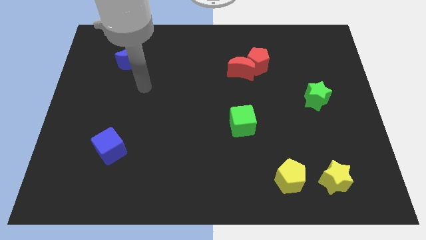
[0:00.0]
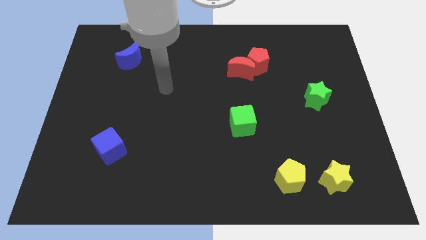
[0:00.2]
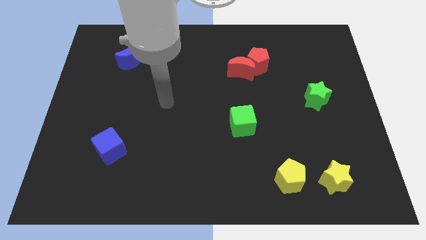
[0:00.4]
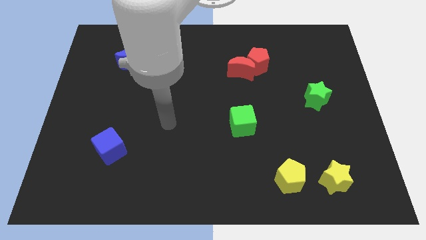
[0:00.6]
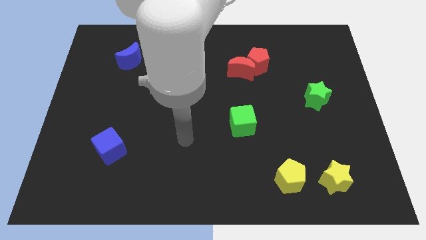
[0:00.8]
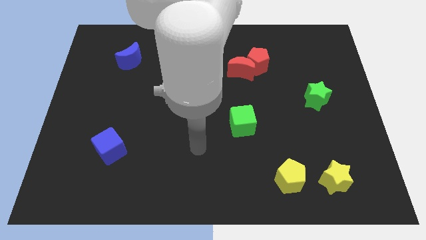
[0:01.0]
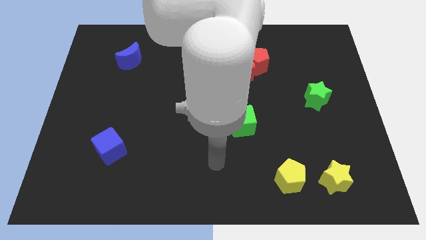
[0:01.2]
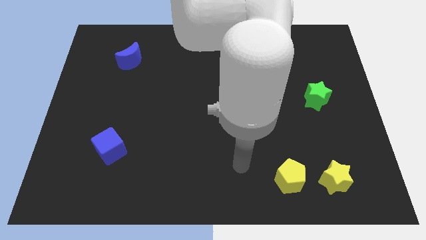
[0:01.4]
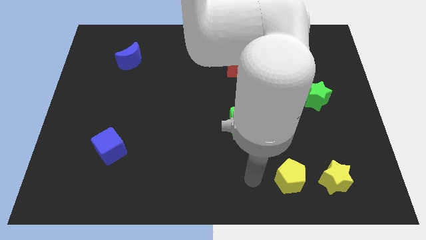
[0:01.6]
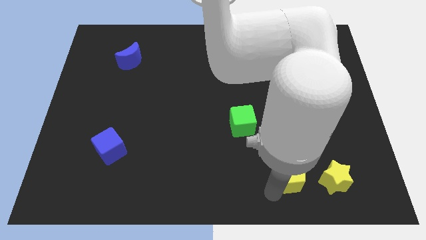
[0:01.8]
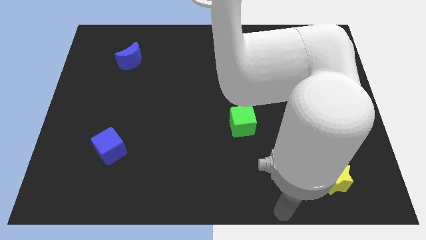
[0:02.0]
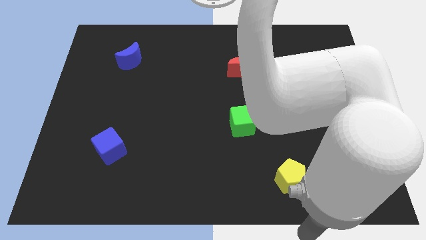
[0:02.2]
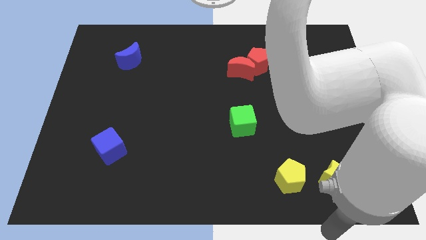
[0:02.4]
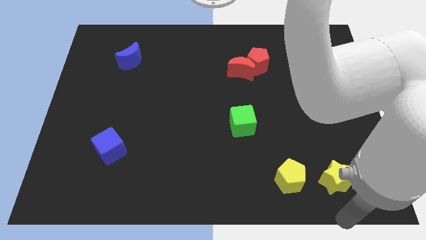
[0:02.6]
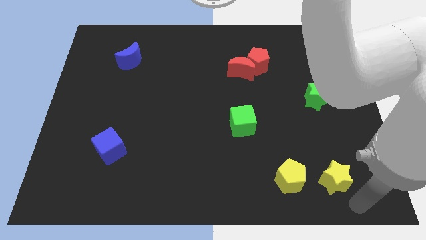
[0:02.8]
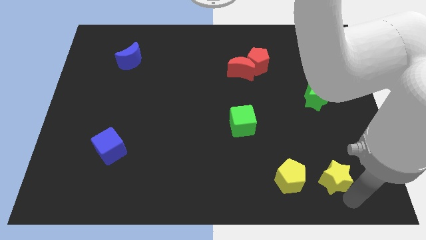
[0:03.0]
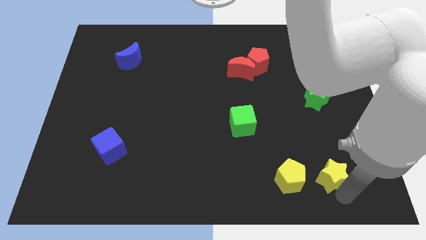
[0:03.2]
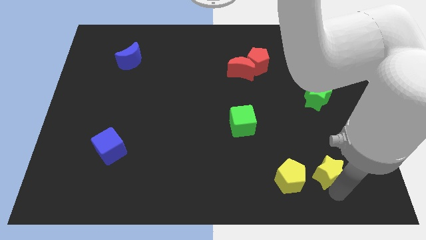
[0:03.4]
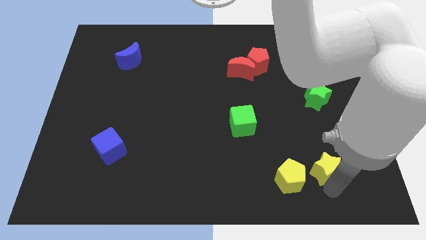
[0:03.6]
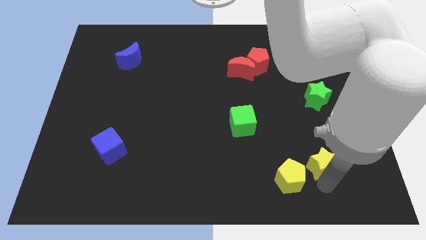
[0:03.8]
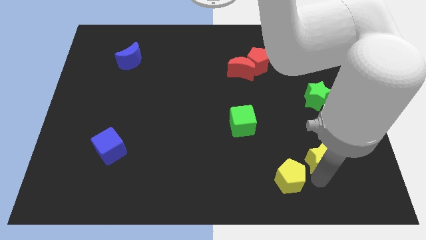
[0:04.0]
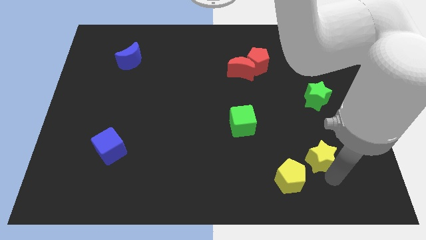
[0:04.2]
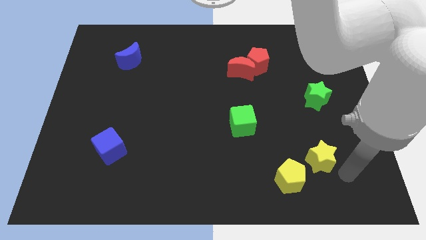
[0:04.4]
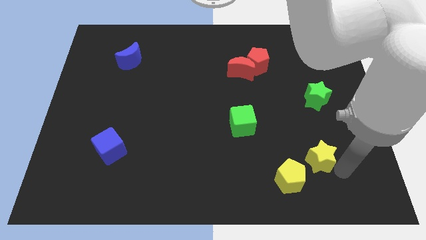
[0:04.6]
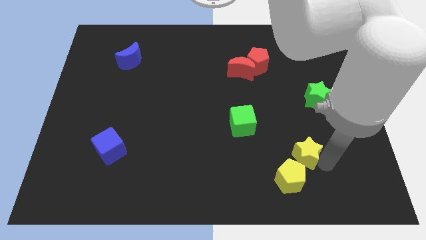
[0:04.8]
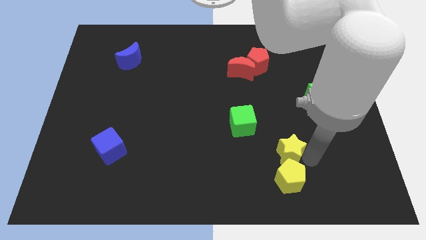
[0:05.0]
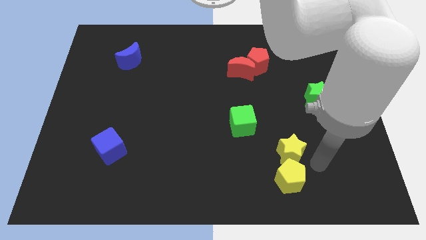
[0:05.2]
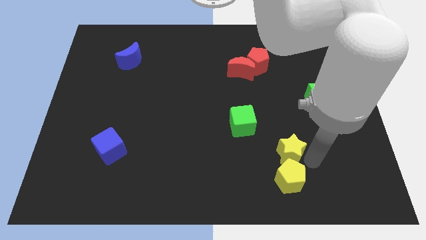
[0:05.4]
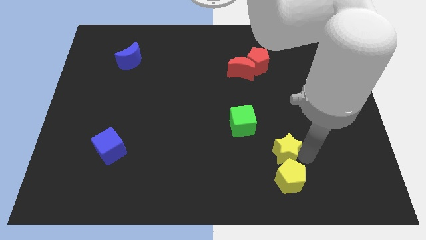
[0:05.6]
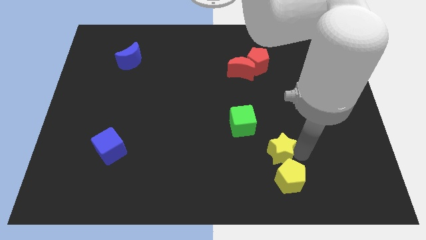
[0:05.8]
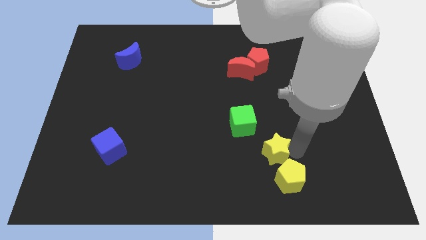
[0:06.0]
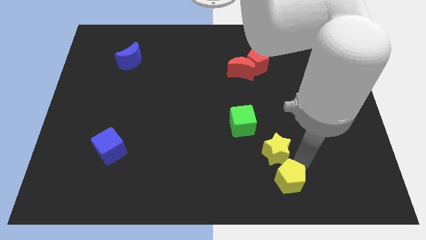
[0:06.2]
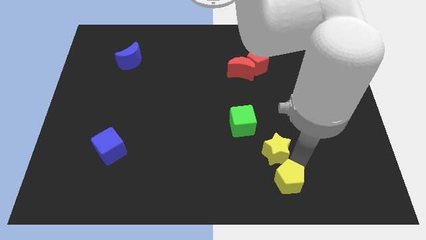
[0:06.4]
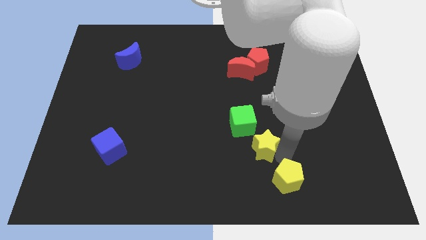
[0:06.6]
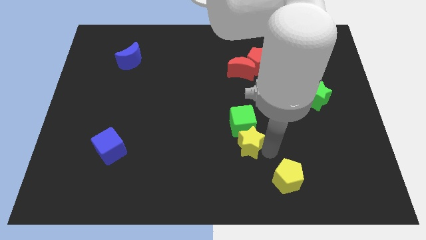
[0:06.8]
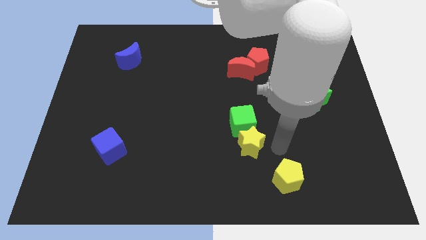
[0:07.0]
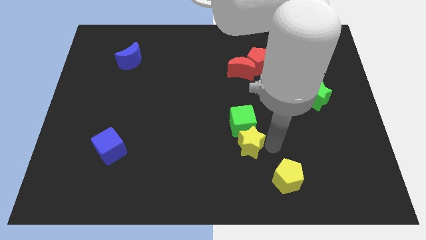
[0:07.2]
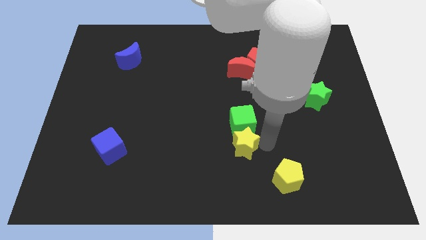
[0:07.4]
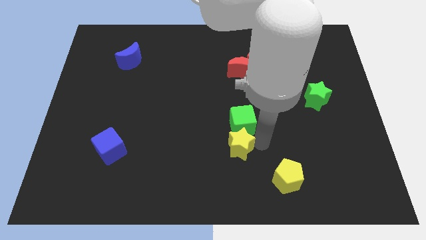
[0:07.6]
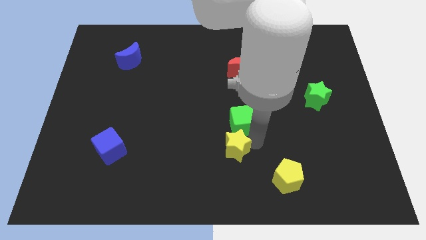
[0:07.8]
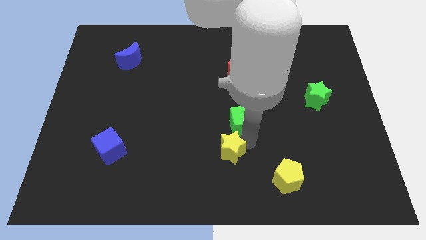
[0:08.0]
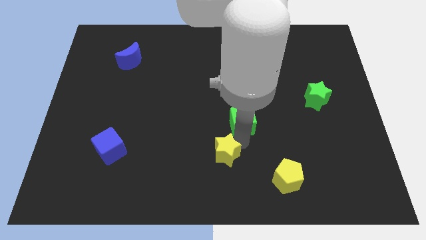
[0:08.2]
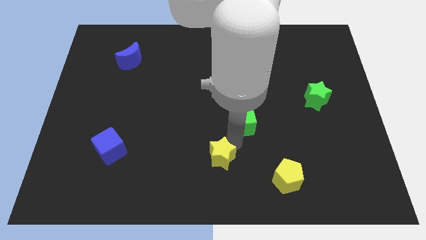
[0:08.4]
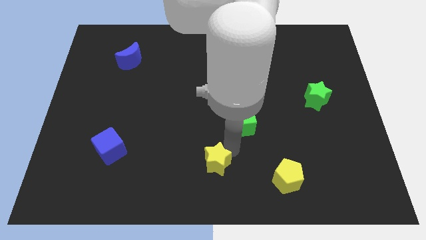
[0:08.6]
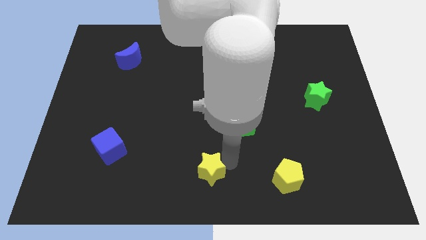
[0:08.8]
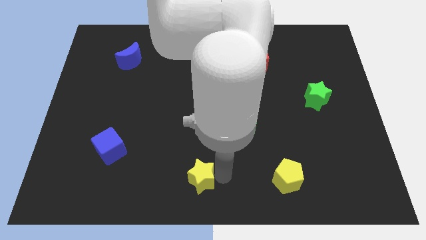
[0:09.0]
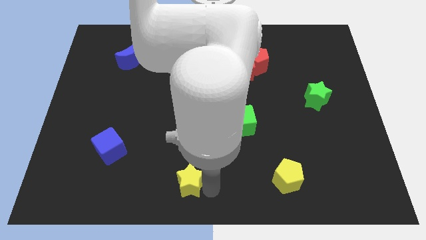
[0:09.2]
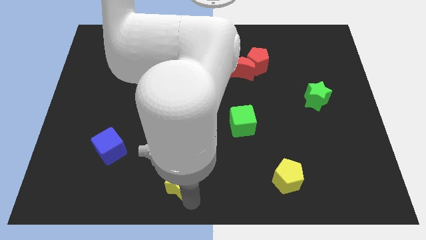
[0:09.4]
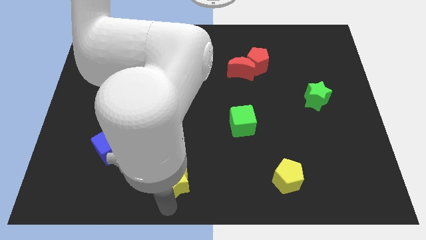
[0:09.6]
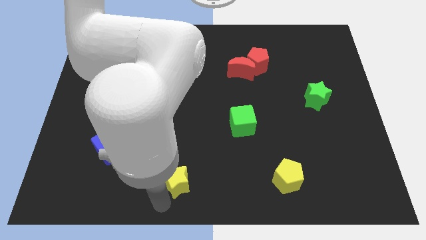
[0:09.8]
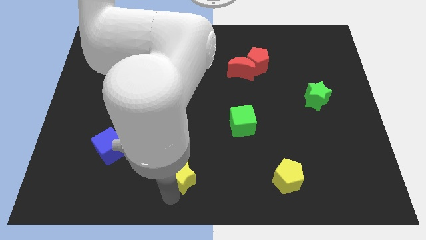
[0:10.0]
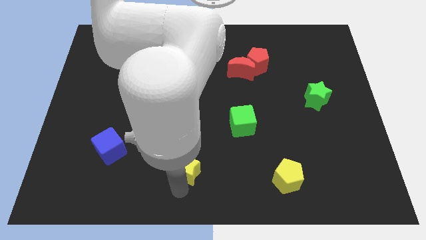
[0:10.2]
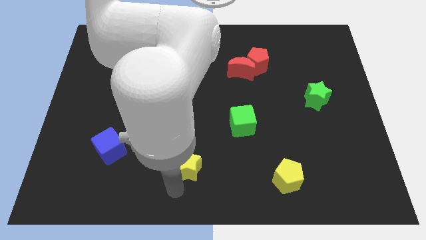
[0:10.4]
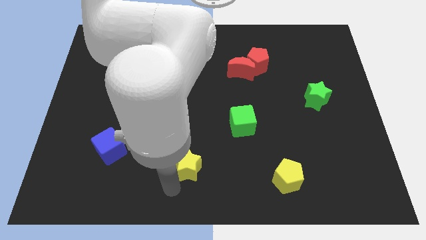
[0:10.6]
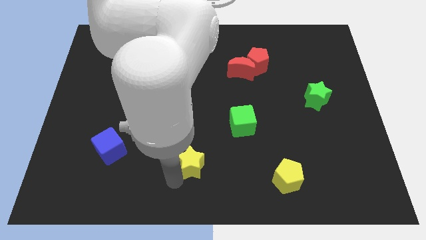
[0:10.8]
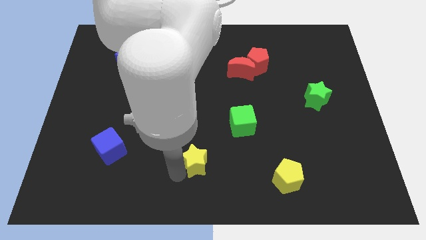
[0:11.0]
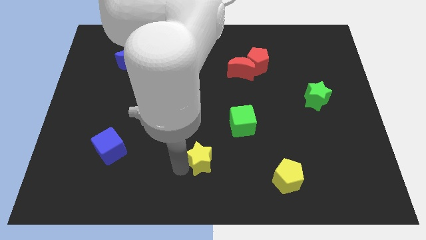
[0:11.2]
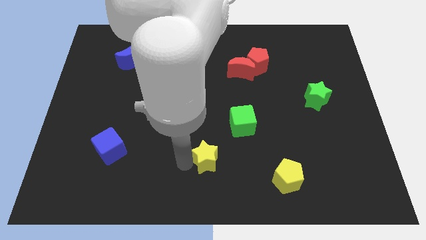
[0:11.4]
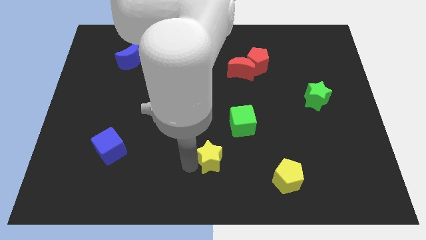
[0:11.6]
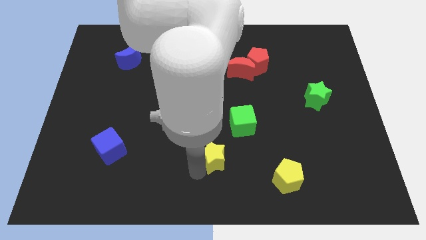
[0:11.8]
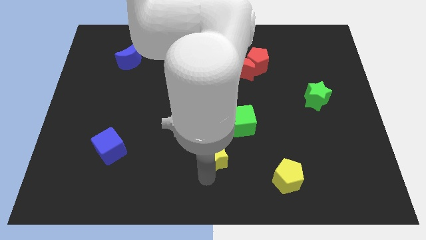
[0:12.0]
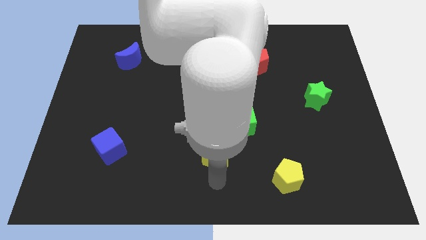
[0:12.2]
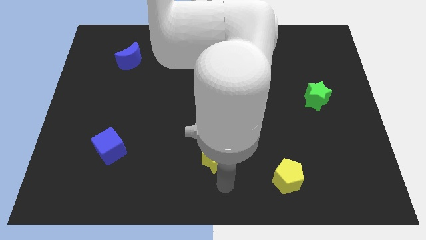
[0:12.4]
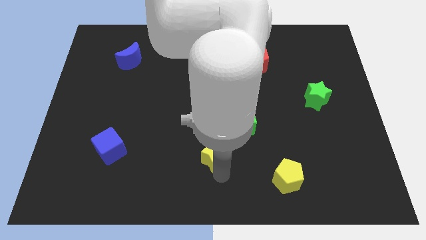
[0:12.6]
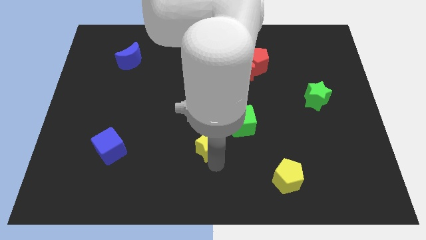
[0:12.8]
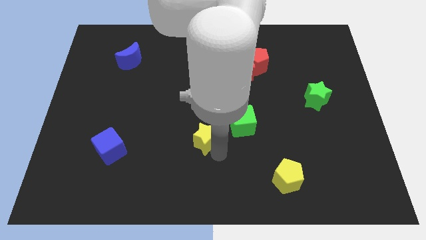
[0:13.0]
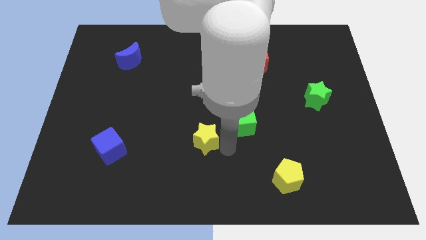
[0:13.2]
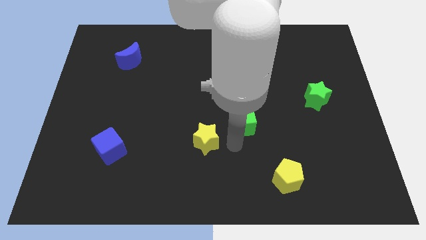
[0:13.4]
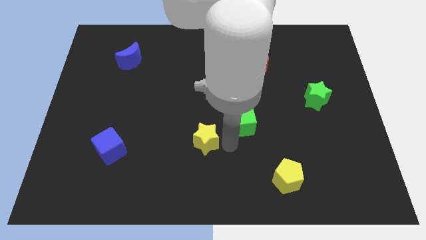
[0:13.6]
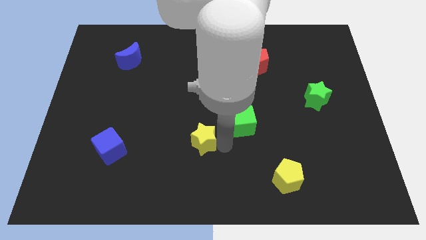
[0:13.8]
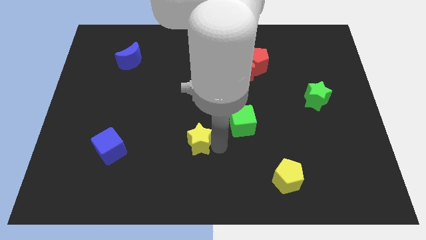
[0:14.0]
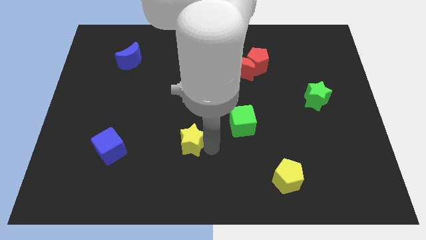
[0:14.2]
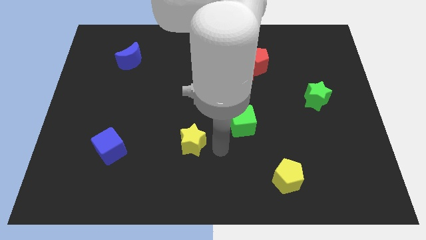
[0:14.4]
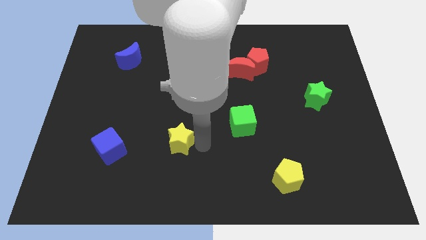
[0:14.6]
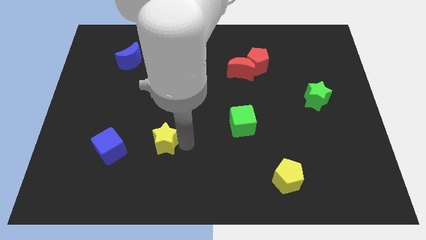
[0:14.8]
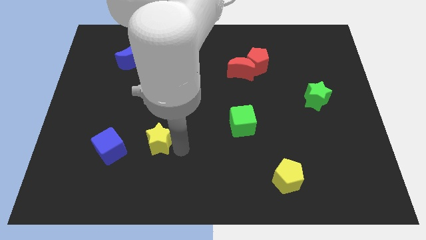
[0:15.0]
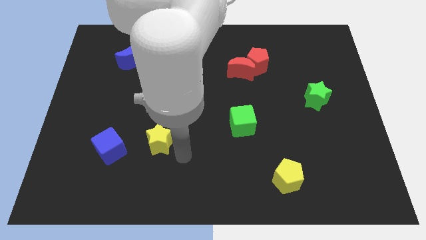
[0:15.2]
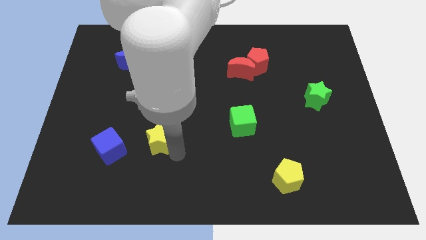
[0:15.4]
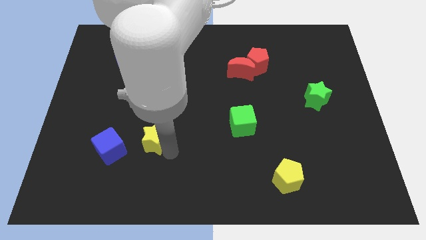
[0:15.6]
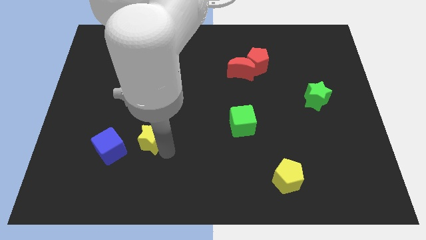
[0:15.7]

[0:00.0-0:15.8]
slide the yellow star to the top right side of the blue cube
